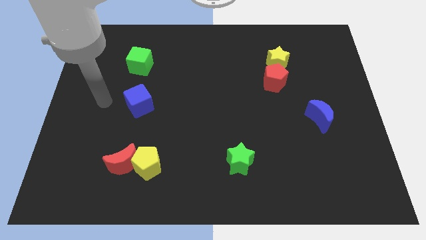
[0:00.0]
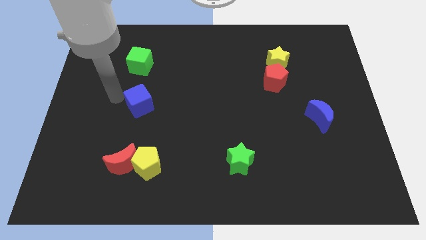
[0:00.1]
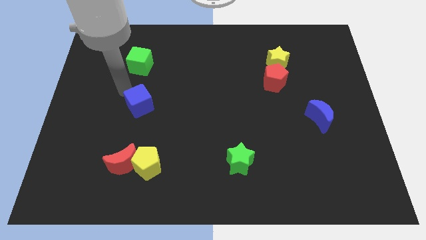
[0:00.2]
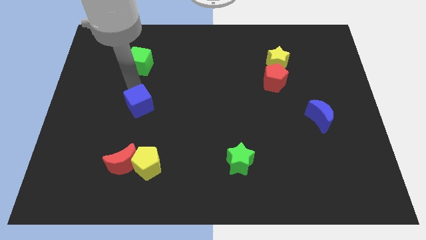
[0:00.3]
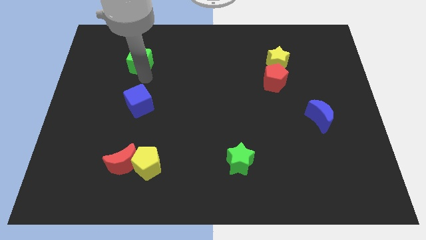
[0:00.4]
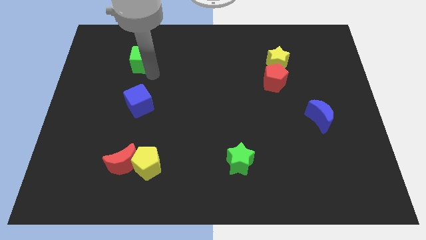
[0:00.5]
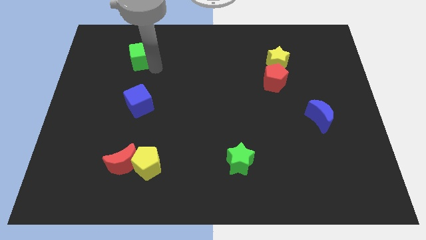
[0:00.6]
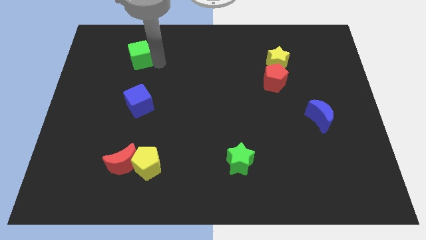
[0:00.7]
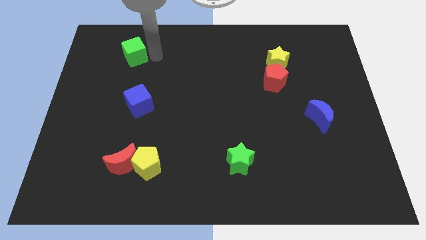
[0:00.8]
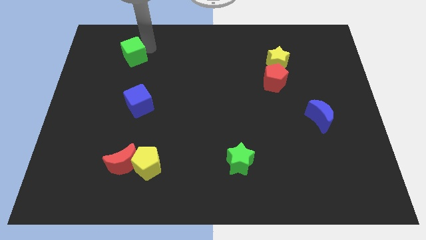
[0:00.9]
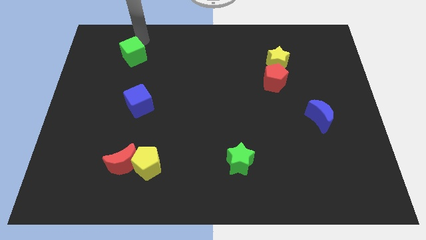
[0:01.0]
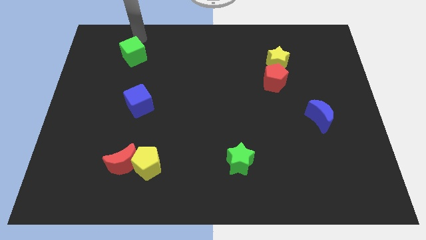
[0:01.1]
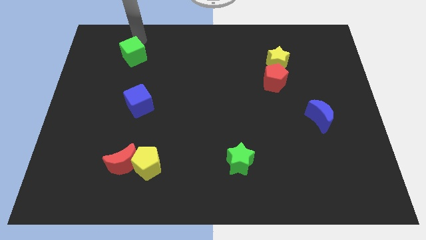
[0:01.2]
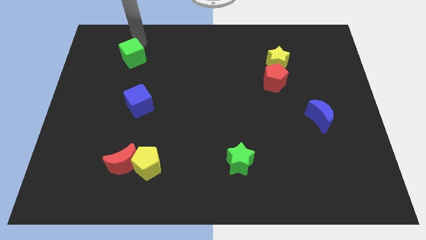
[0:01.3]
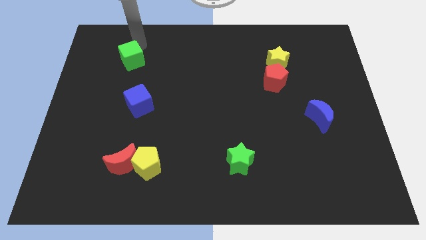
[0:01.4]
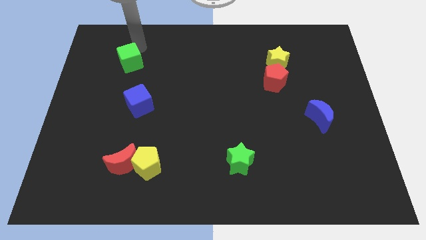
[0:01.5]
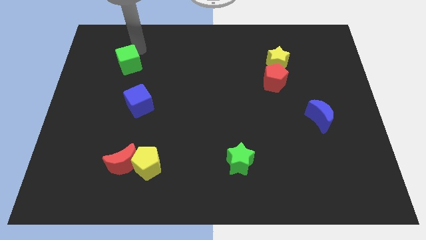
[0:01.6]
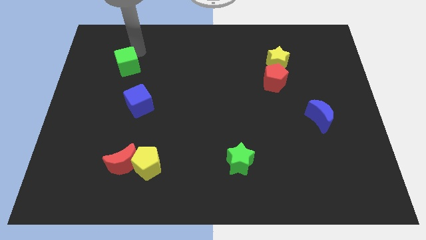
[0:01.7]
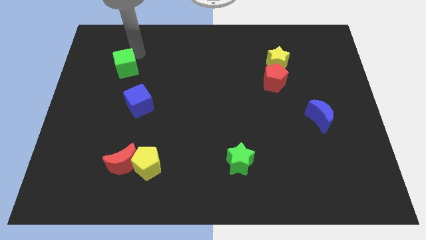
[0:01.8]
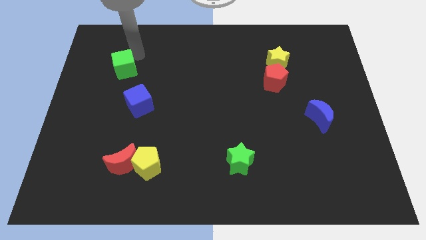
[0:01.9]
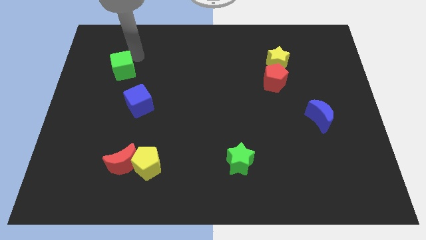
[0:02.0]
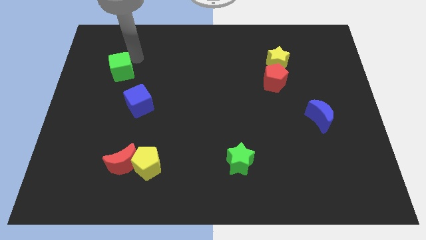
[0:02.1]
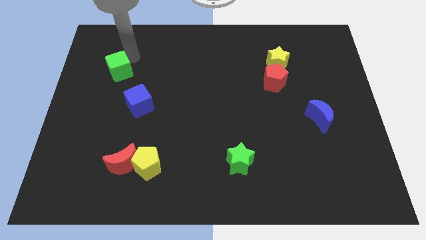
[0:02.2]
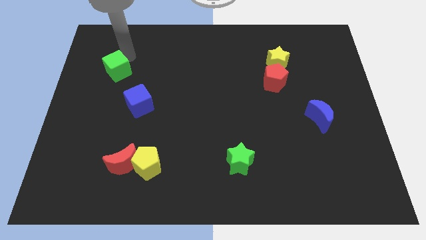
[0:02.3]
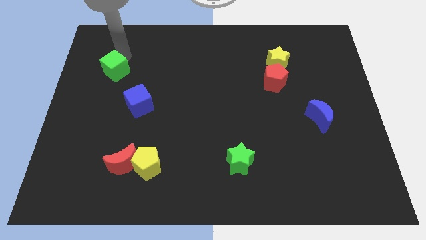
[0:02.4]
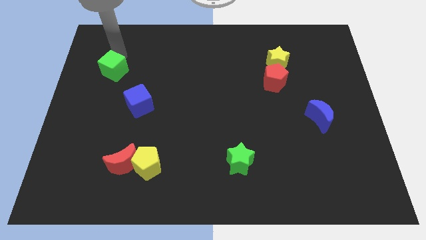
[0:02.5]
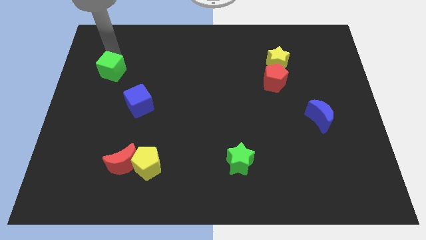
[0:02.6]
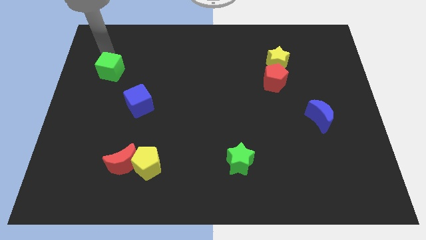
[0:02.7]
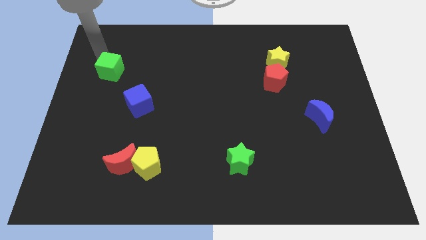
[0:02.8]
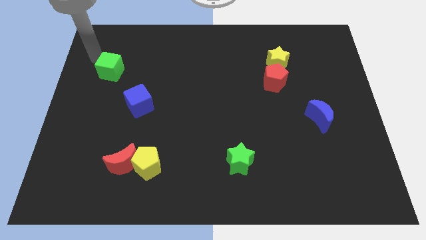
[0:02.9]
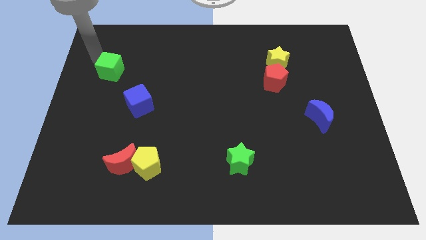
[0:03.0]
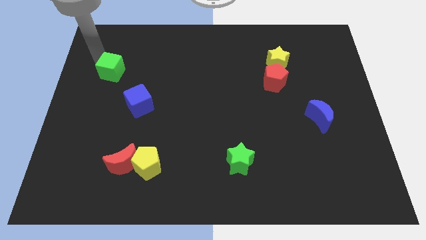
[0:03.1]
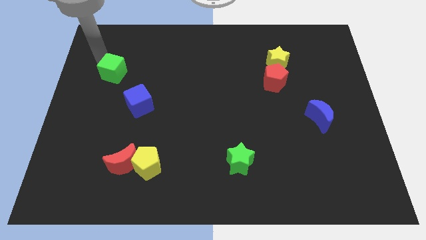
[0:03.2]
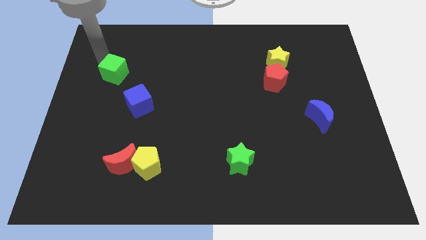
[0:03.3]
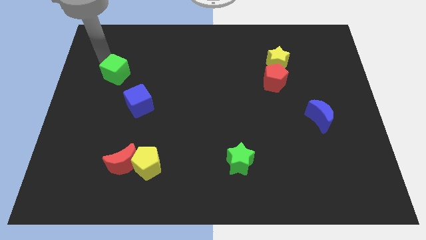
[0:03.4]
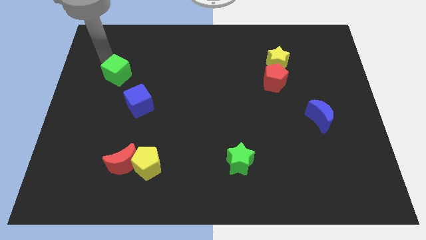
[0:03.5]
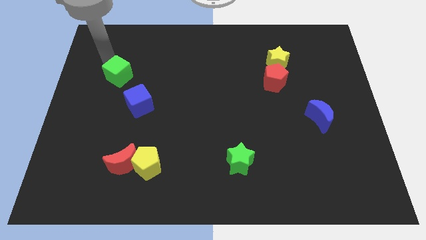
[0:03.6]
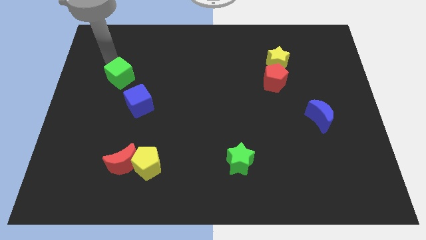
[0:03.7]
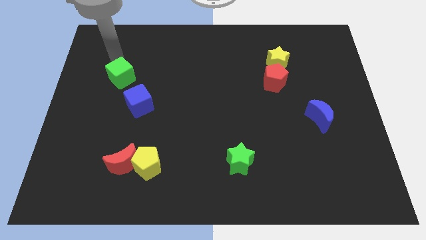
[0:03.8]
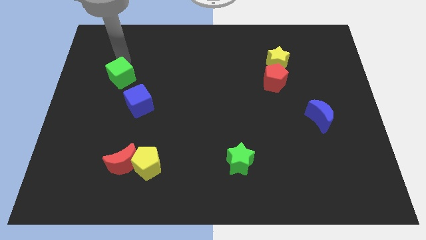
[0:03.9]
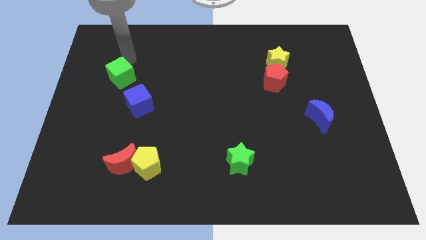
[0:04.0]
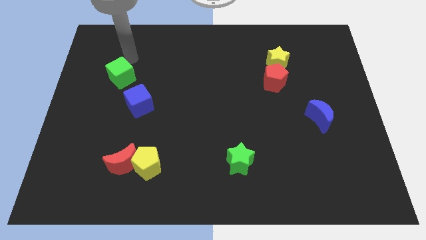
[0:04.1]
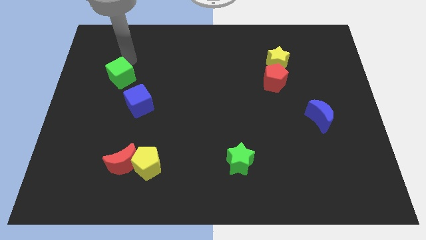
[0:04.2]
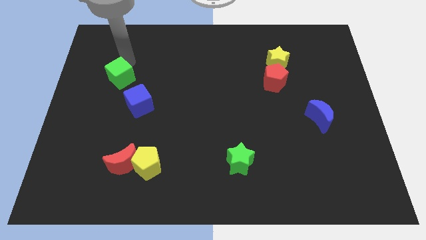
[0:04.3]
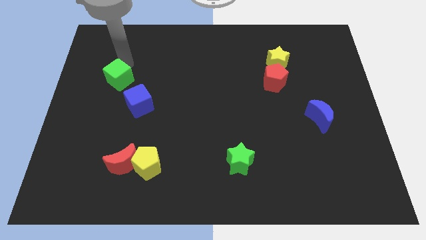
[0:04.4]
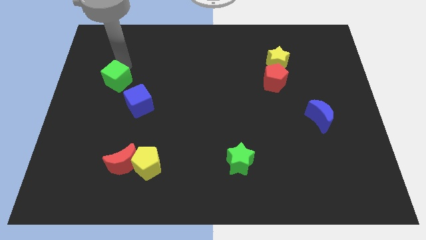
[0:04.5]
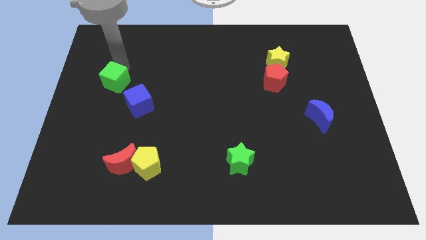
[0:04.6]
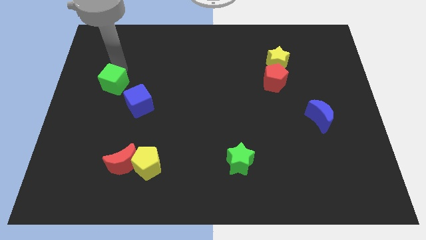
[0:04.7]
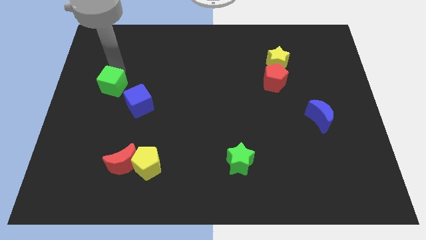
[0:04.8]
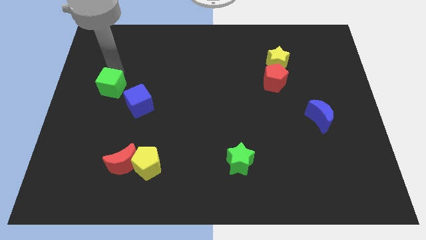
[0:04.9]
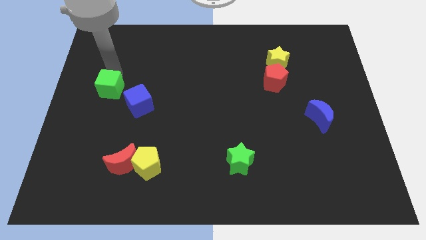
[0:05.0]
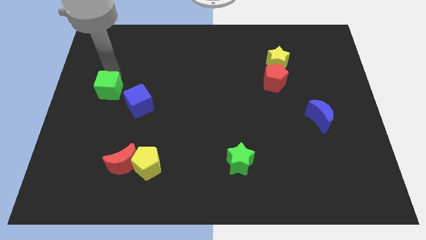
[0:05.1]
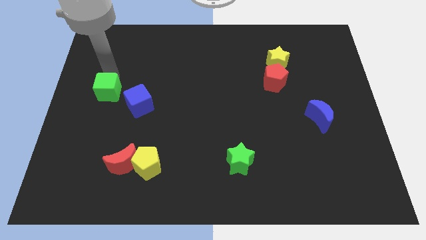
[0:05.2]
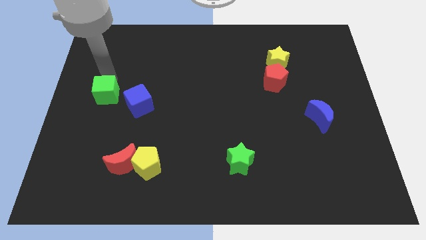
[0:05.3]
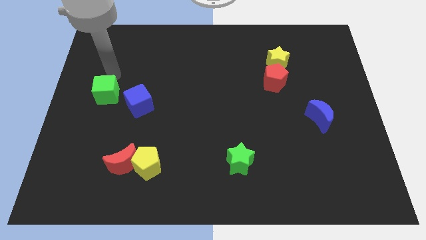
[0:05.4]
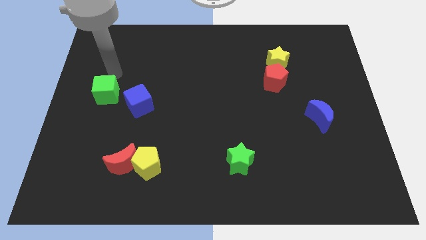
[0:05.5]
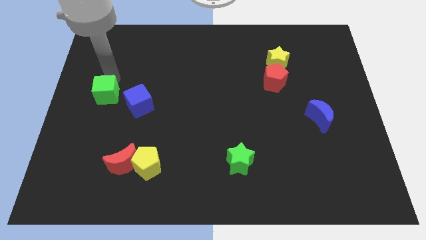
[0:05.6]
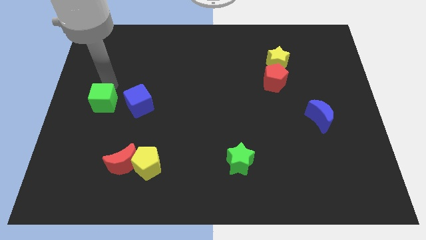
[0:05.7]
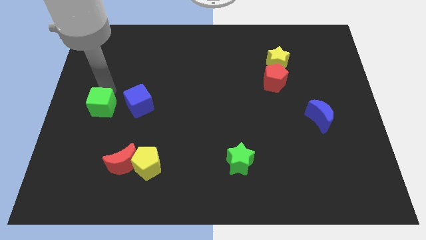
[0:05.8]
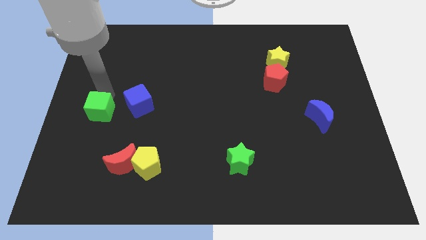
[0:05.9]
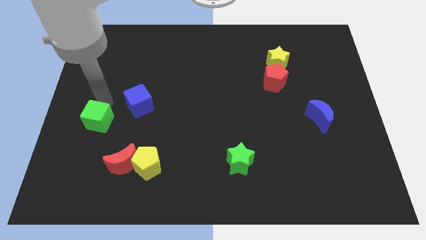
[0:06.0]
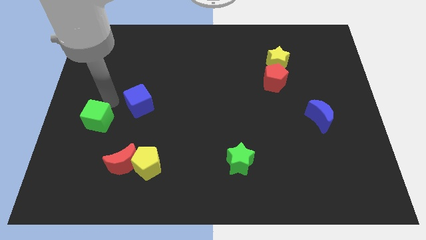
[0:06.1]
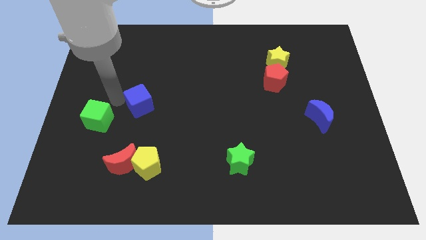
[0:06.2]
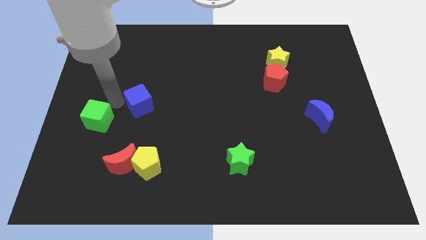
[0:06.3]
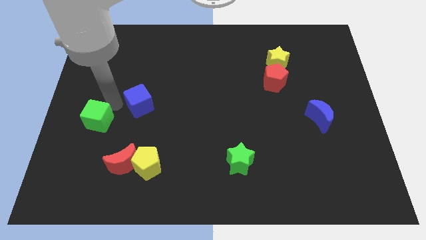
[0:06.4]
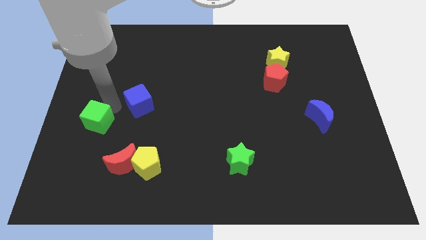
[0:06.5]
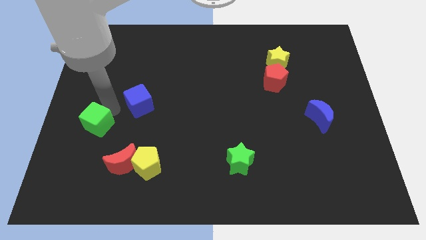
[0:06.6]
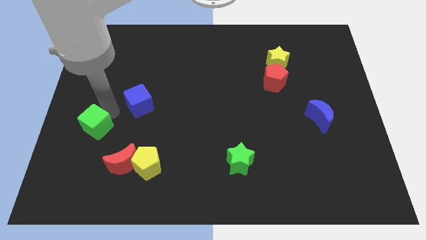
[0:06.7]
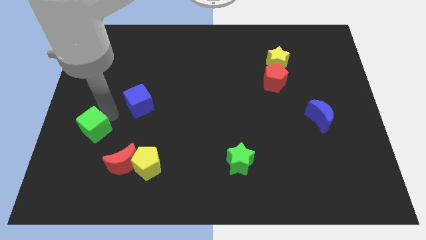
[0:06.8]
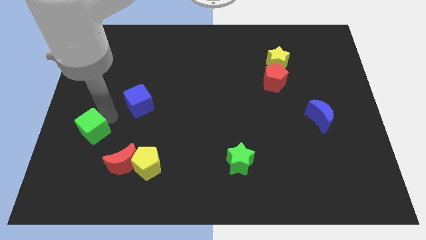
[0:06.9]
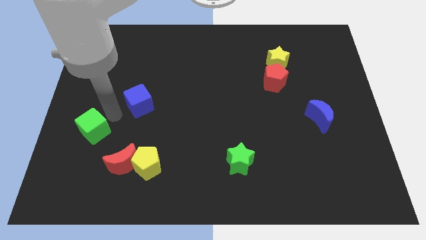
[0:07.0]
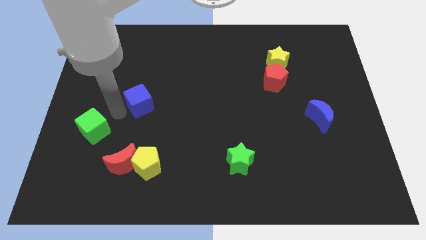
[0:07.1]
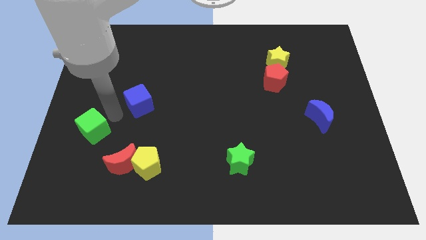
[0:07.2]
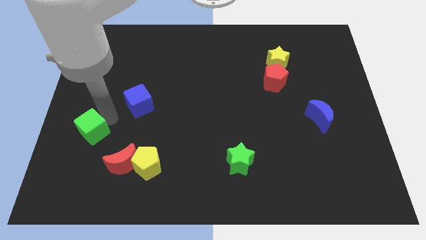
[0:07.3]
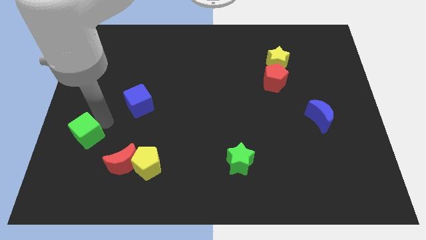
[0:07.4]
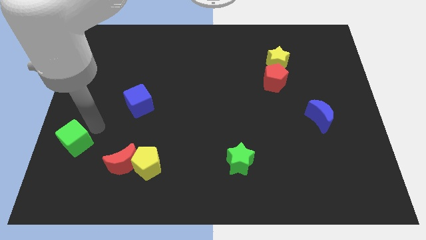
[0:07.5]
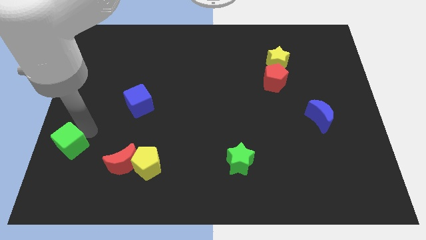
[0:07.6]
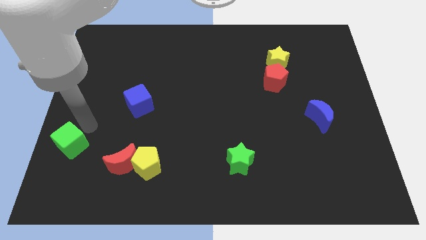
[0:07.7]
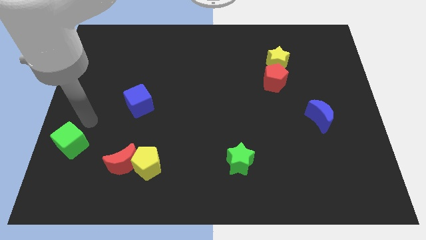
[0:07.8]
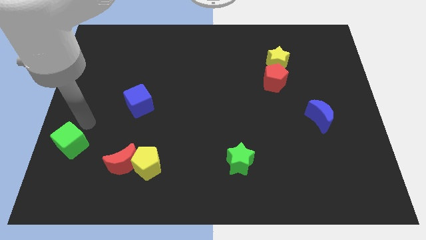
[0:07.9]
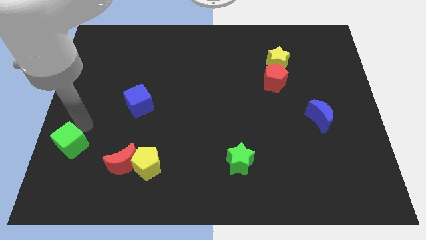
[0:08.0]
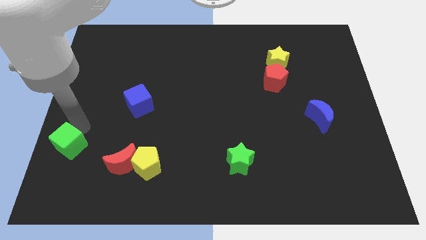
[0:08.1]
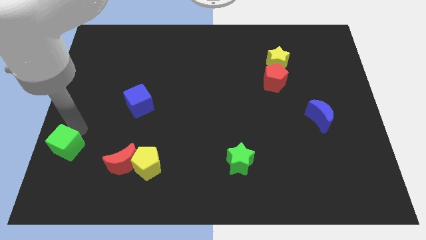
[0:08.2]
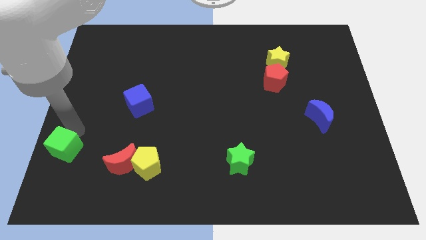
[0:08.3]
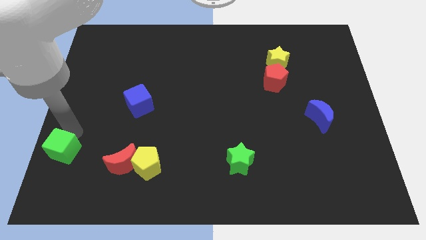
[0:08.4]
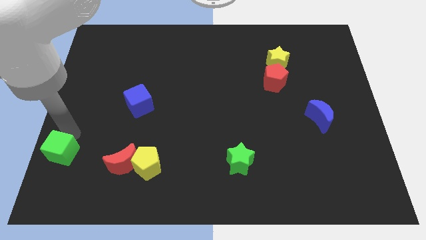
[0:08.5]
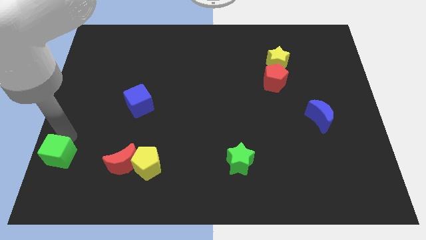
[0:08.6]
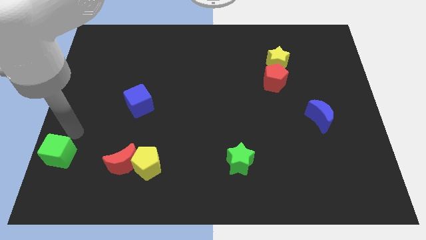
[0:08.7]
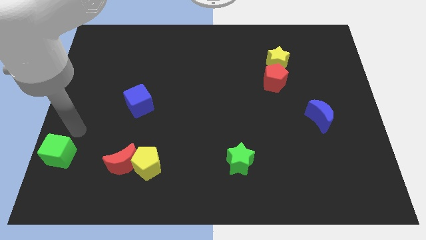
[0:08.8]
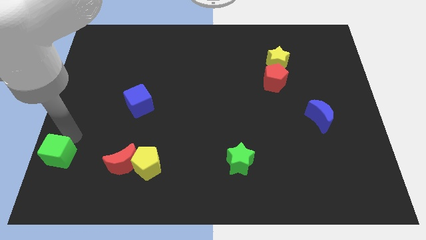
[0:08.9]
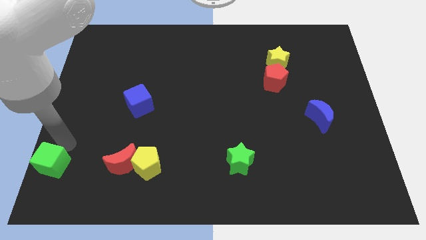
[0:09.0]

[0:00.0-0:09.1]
put the green cube to the lower left corner
